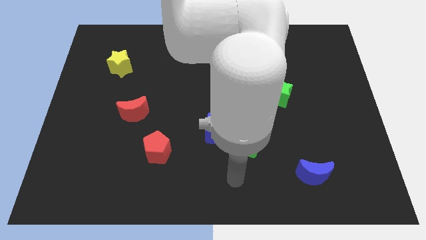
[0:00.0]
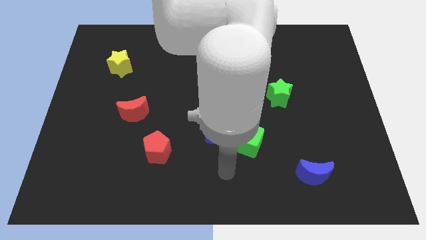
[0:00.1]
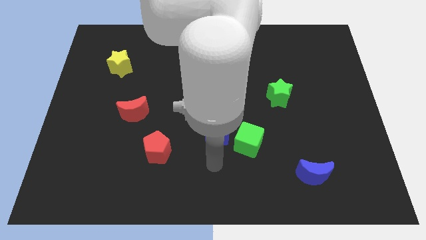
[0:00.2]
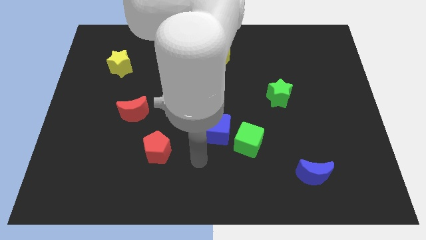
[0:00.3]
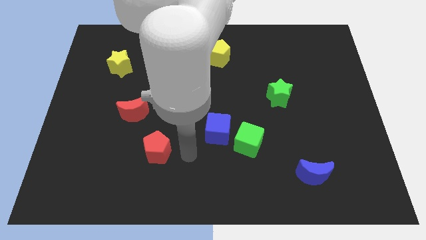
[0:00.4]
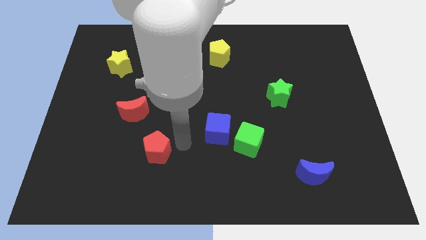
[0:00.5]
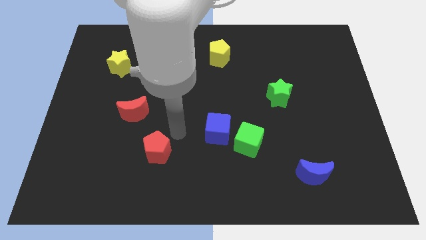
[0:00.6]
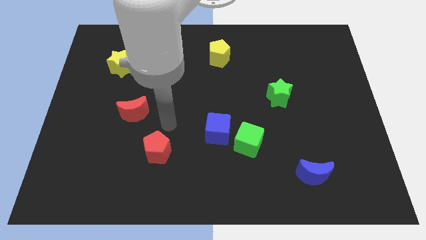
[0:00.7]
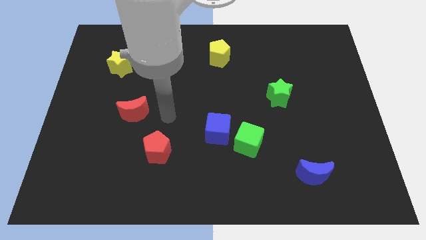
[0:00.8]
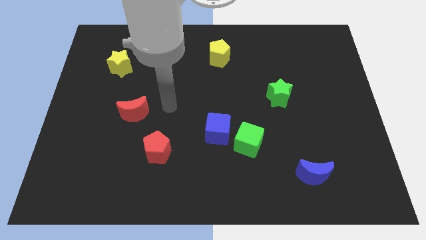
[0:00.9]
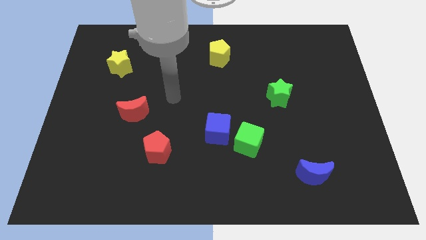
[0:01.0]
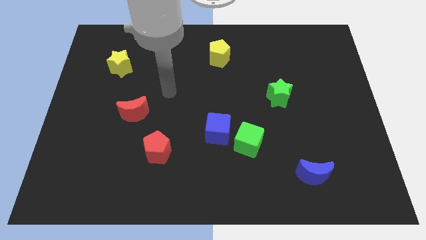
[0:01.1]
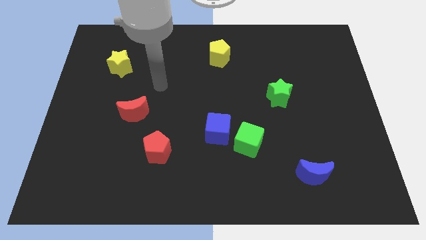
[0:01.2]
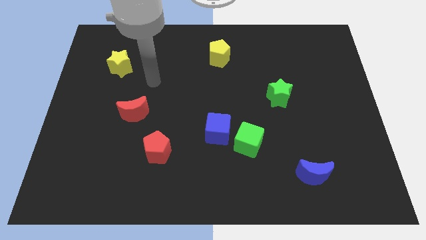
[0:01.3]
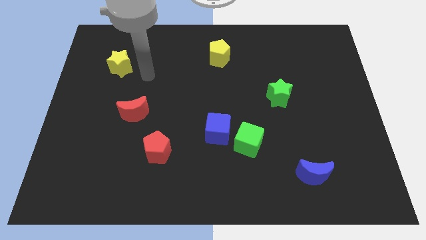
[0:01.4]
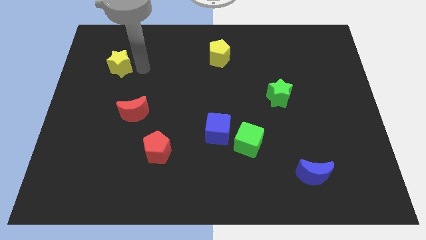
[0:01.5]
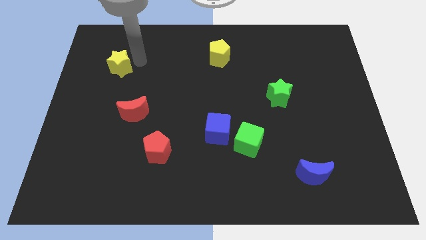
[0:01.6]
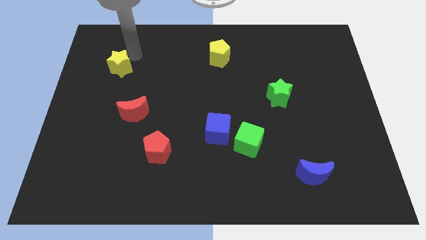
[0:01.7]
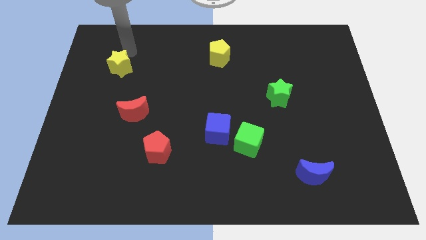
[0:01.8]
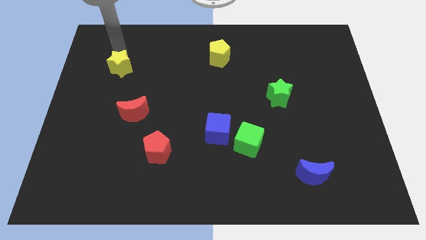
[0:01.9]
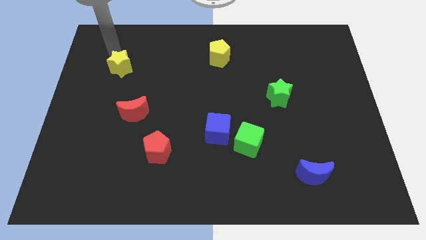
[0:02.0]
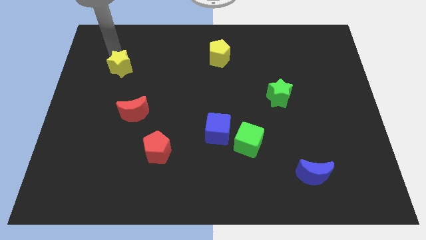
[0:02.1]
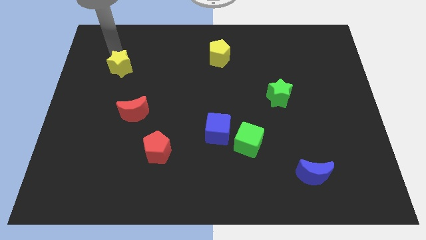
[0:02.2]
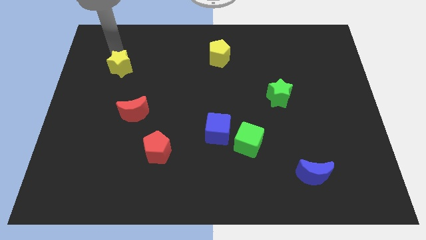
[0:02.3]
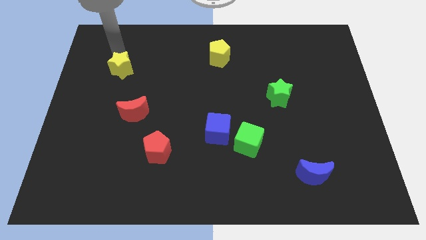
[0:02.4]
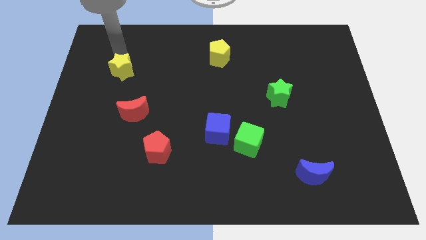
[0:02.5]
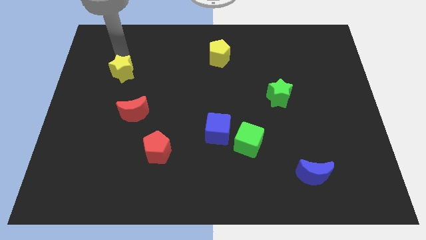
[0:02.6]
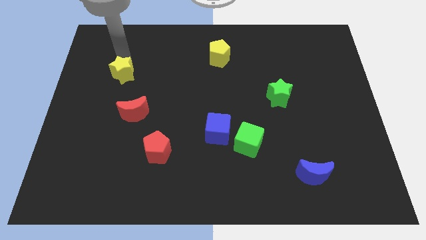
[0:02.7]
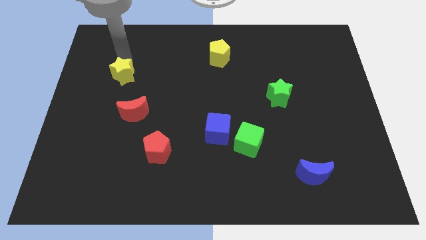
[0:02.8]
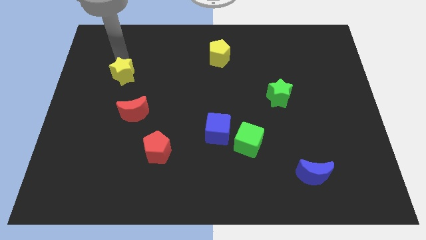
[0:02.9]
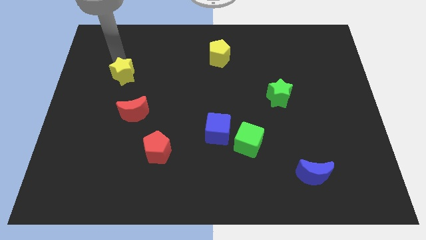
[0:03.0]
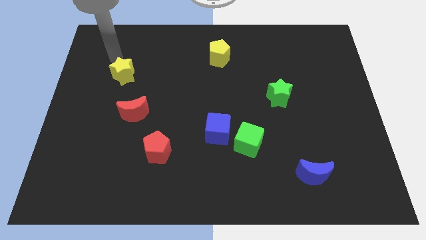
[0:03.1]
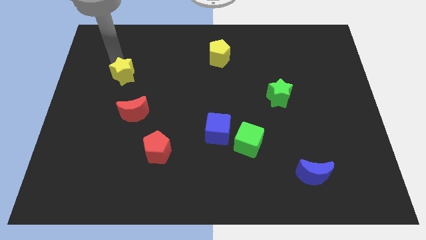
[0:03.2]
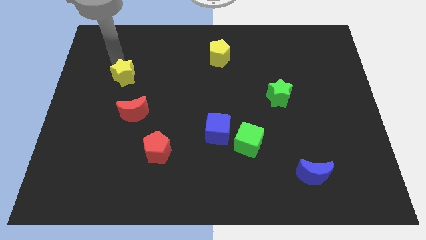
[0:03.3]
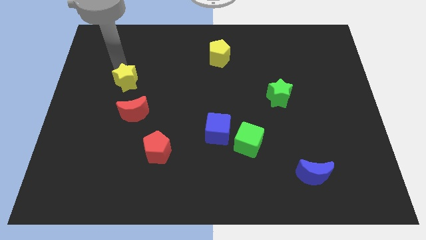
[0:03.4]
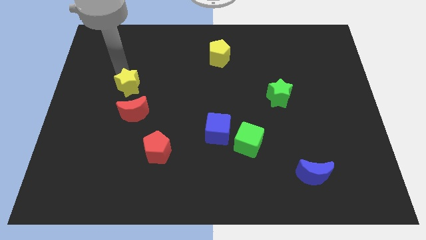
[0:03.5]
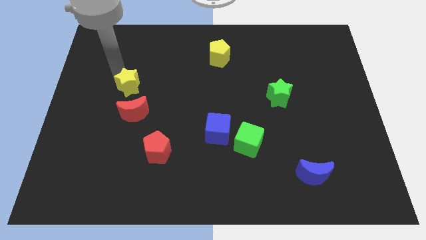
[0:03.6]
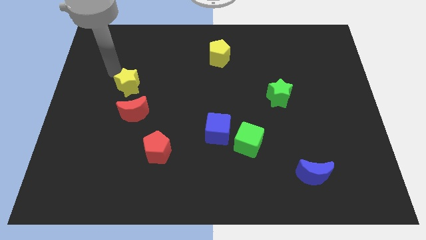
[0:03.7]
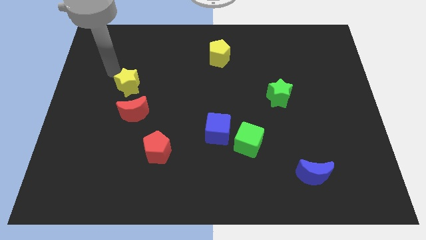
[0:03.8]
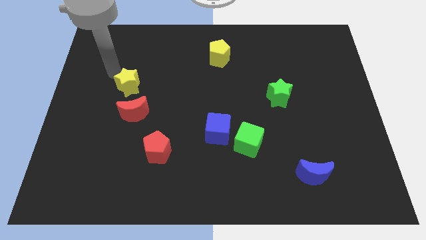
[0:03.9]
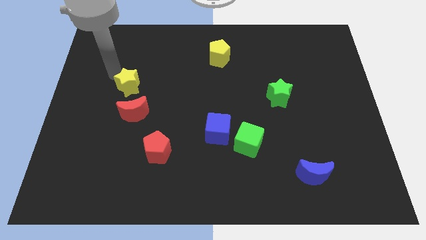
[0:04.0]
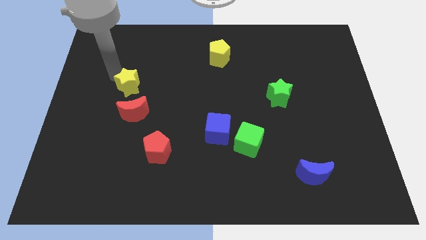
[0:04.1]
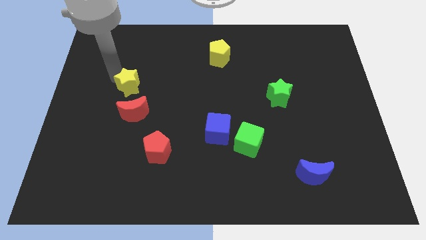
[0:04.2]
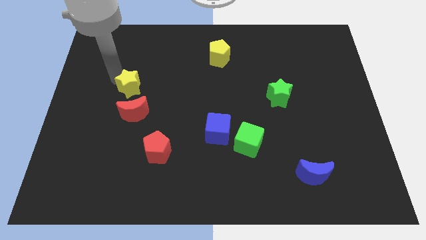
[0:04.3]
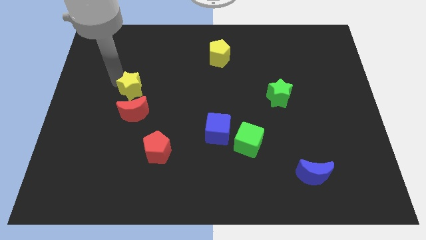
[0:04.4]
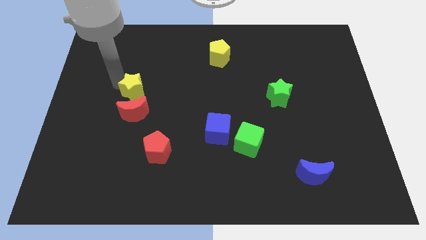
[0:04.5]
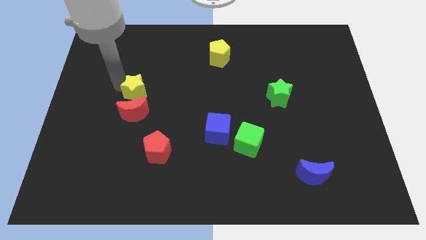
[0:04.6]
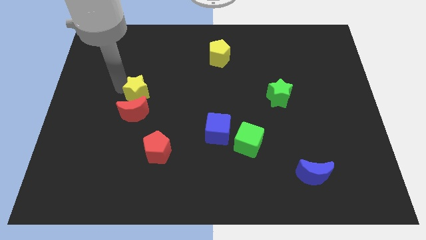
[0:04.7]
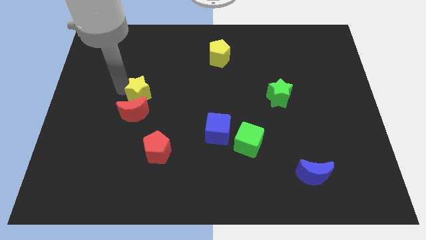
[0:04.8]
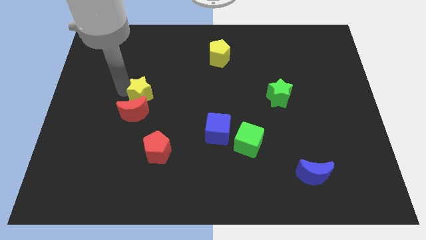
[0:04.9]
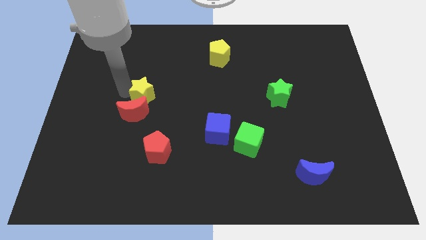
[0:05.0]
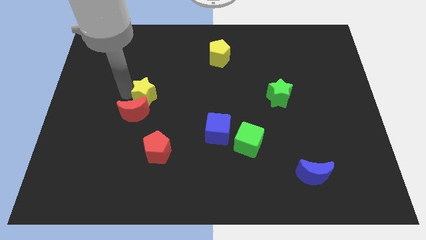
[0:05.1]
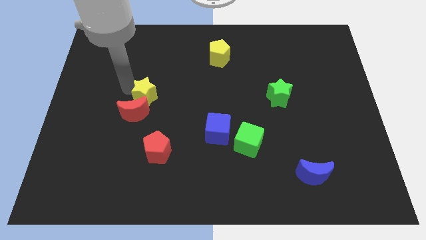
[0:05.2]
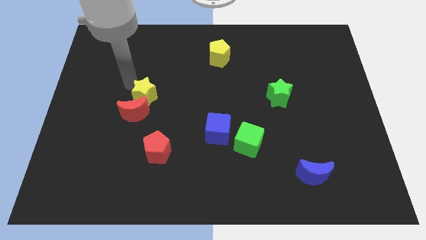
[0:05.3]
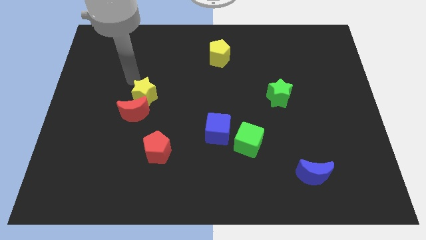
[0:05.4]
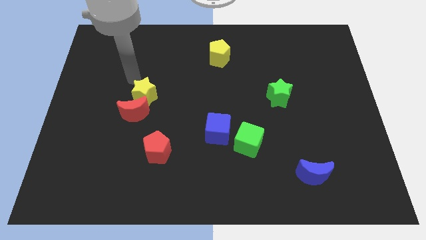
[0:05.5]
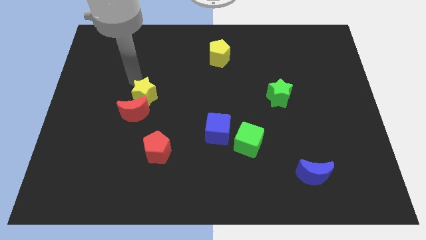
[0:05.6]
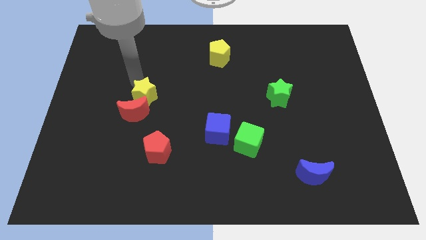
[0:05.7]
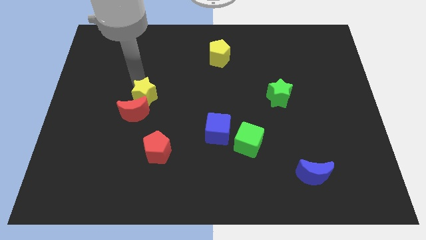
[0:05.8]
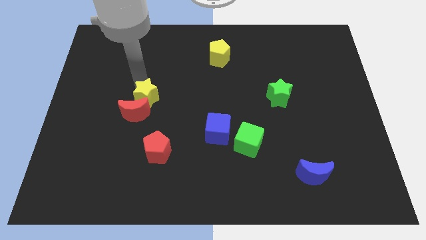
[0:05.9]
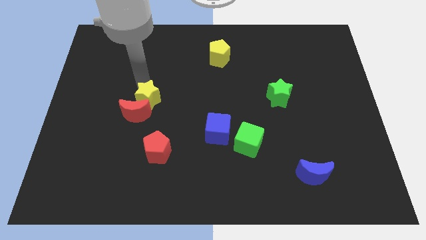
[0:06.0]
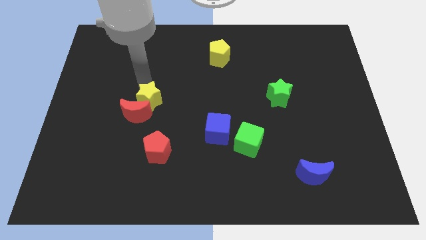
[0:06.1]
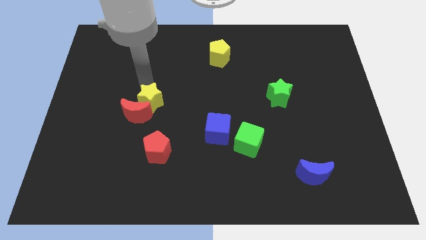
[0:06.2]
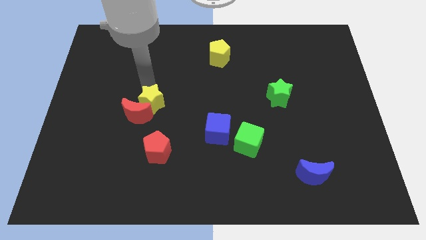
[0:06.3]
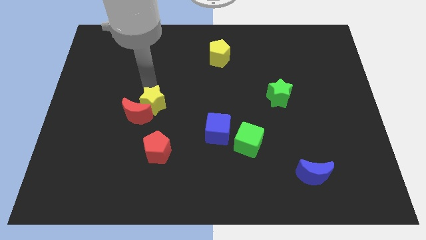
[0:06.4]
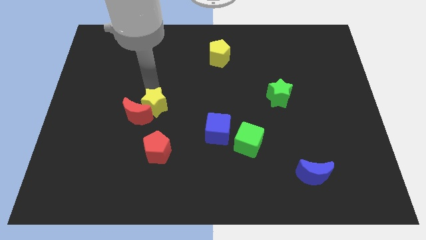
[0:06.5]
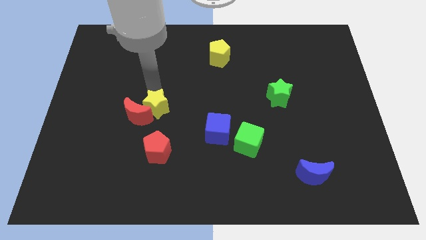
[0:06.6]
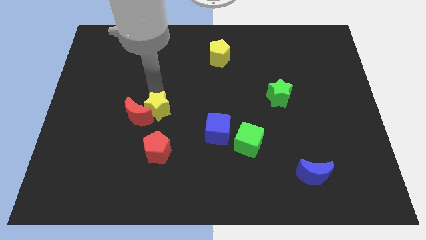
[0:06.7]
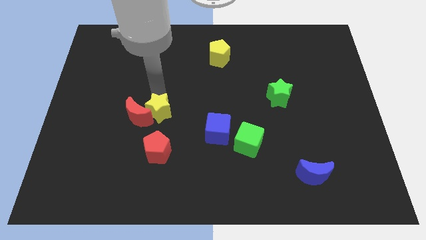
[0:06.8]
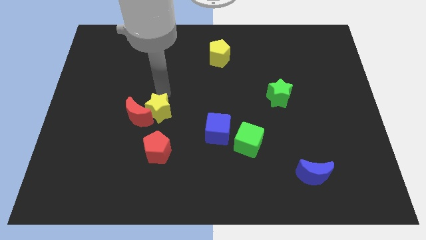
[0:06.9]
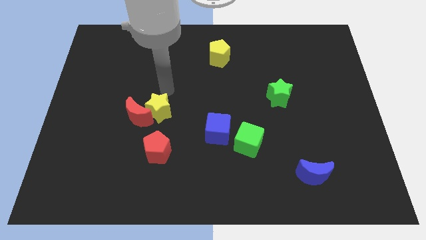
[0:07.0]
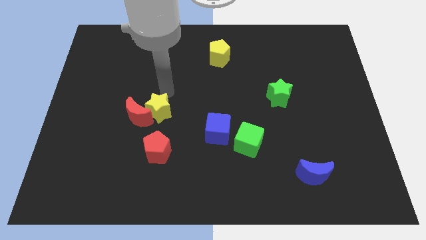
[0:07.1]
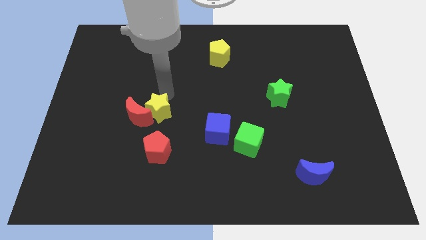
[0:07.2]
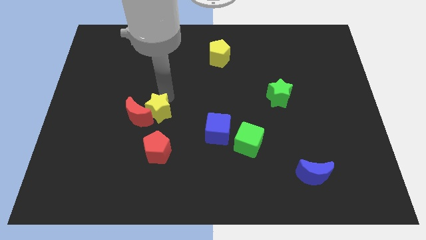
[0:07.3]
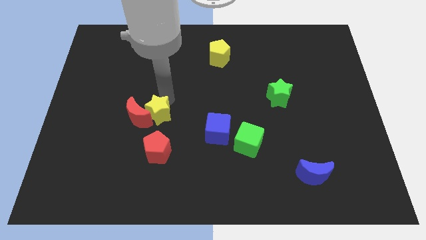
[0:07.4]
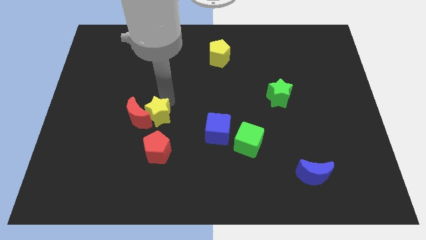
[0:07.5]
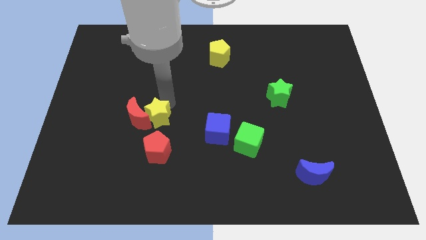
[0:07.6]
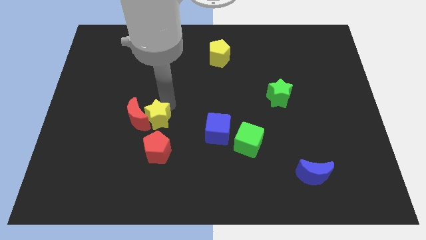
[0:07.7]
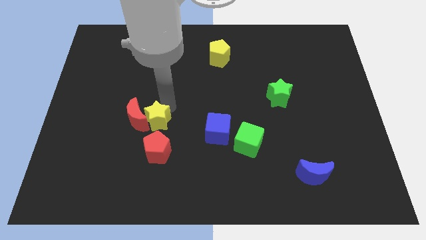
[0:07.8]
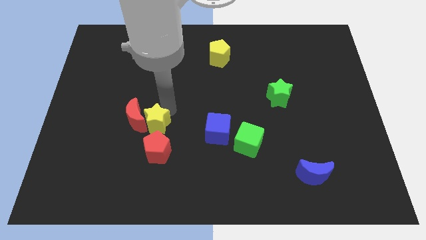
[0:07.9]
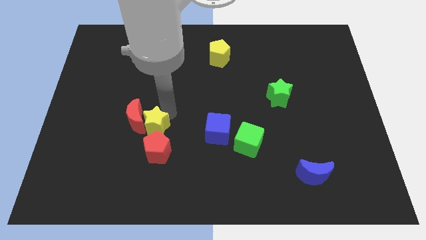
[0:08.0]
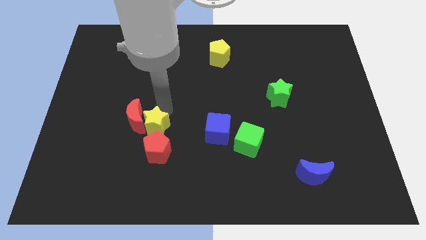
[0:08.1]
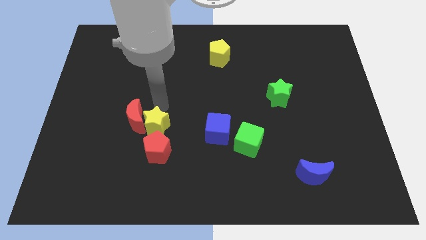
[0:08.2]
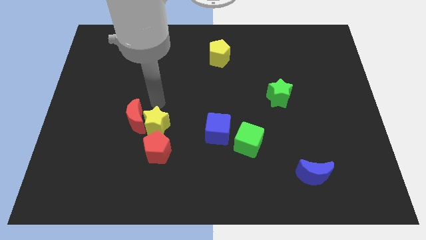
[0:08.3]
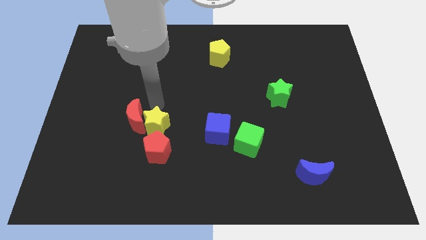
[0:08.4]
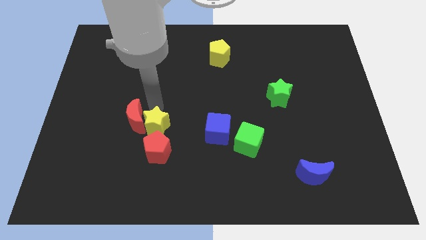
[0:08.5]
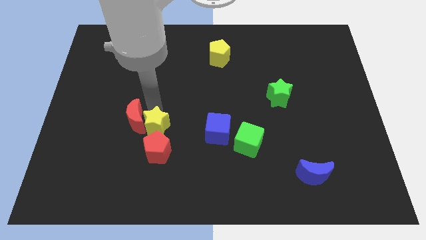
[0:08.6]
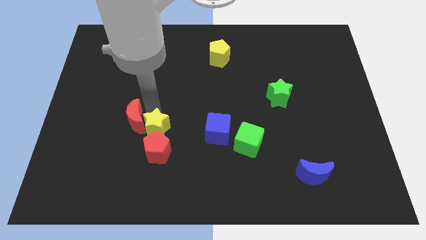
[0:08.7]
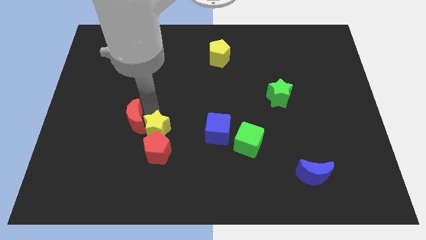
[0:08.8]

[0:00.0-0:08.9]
push the yellow star close to the red pentagon
